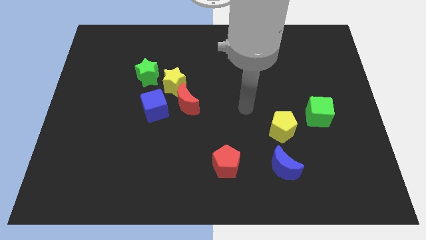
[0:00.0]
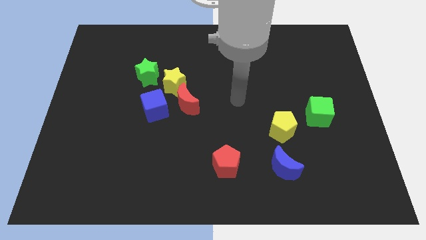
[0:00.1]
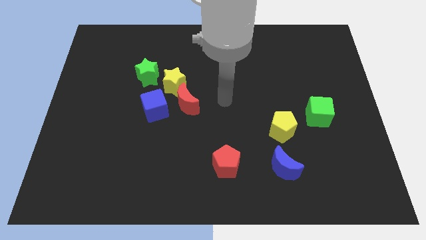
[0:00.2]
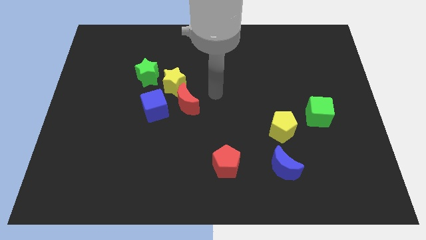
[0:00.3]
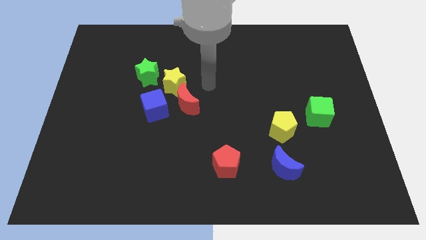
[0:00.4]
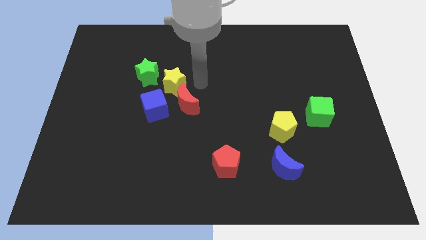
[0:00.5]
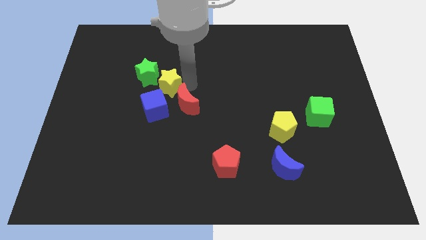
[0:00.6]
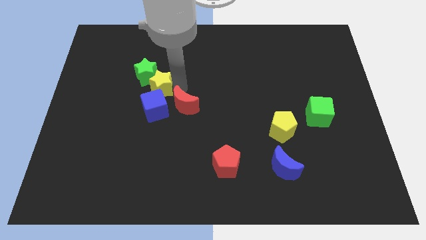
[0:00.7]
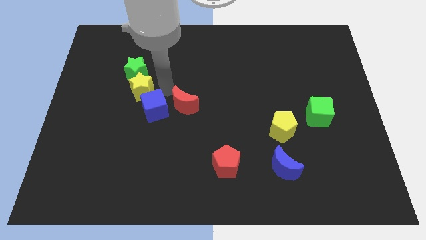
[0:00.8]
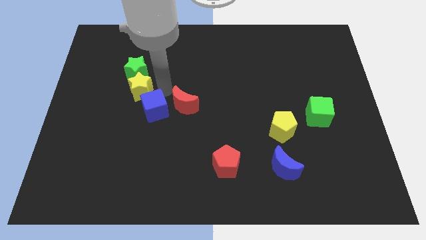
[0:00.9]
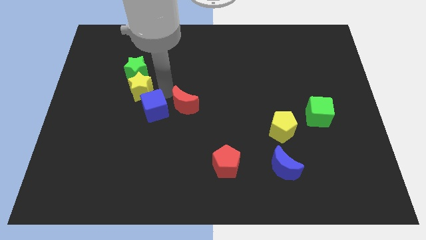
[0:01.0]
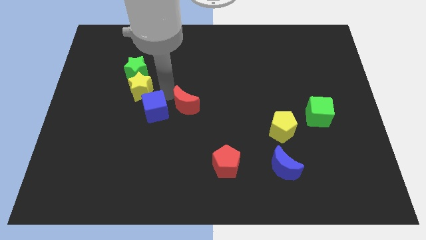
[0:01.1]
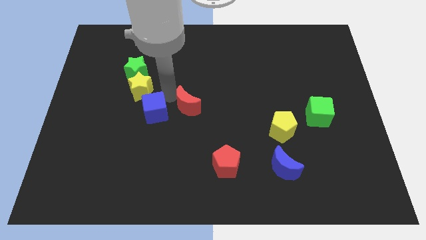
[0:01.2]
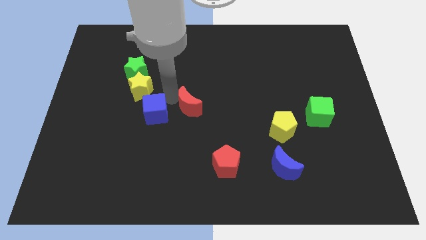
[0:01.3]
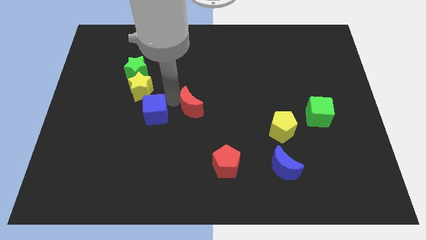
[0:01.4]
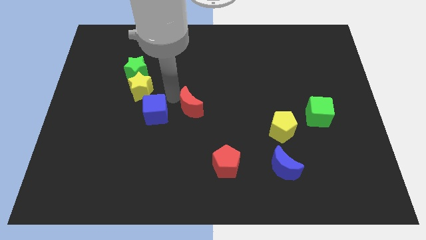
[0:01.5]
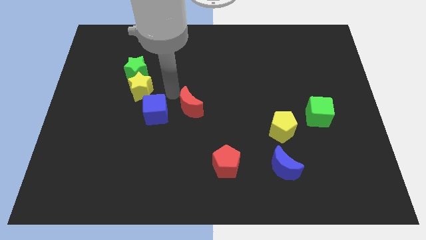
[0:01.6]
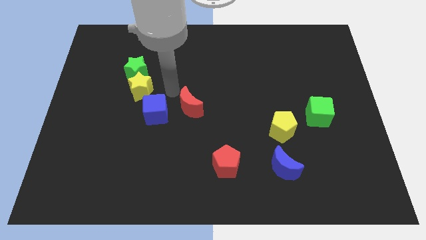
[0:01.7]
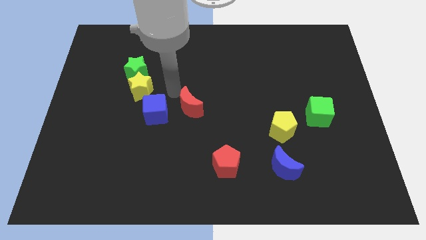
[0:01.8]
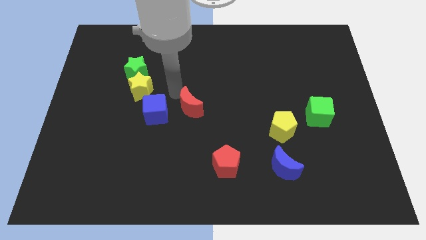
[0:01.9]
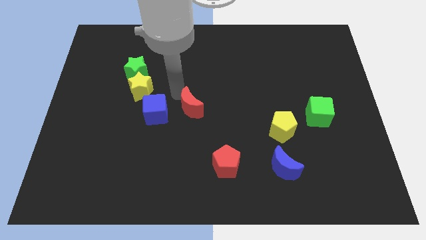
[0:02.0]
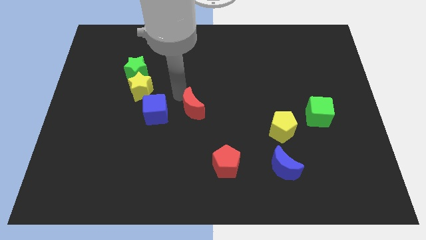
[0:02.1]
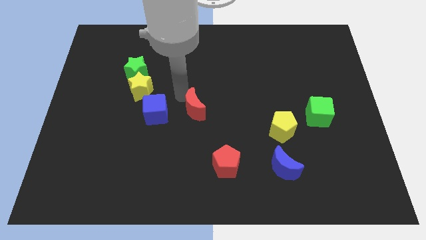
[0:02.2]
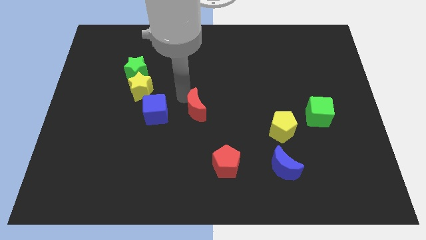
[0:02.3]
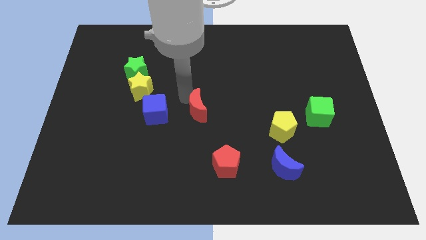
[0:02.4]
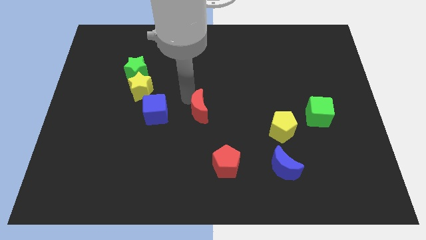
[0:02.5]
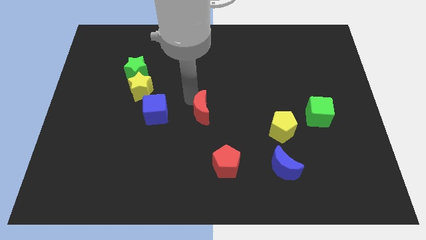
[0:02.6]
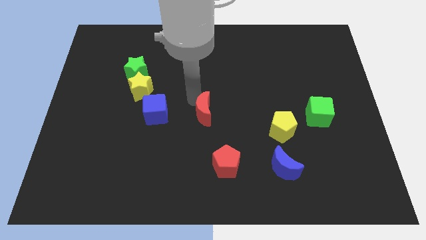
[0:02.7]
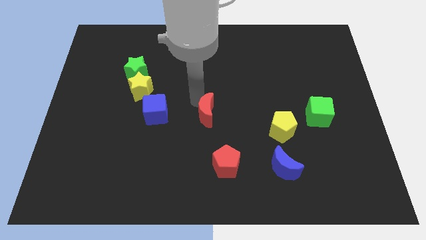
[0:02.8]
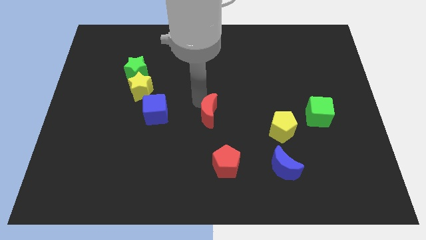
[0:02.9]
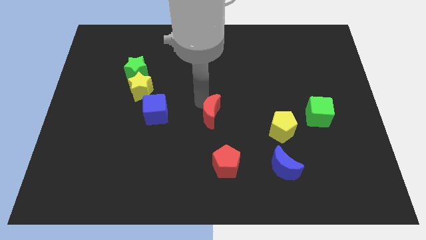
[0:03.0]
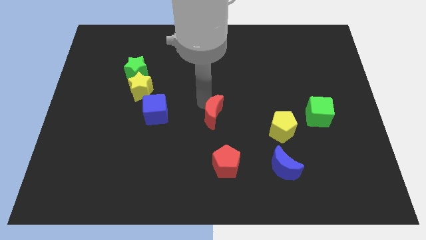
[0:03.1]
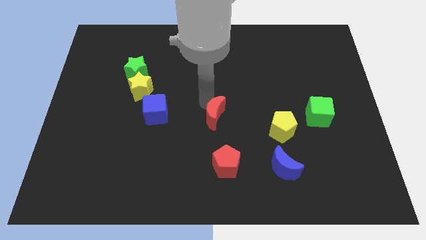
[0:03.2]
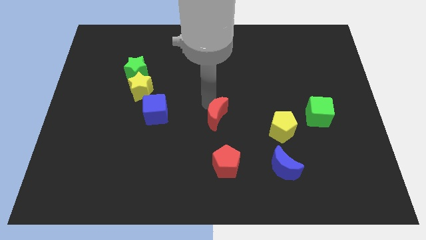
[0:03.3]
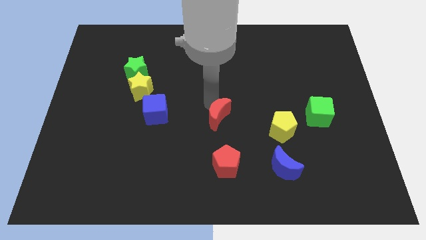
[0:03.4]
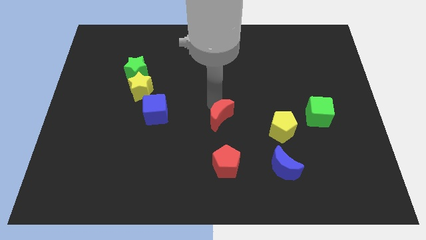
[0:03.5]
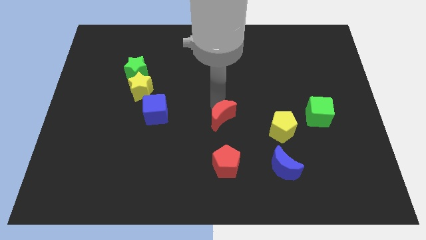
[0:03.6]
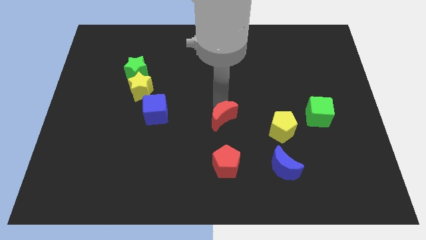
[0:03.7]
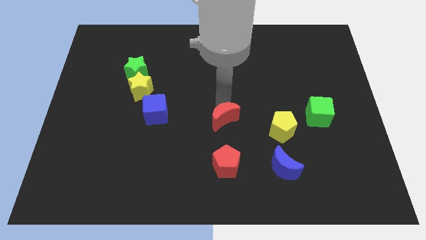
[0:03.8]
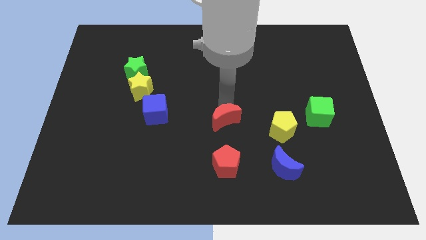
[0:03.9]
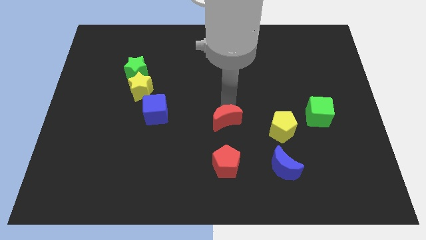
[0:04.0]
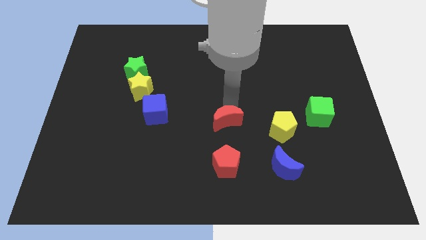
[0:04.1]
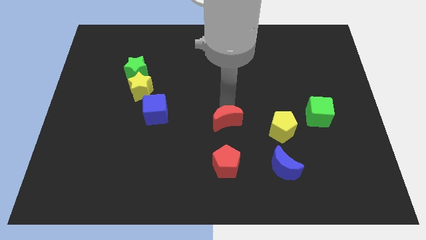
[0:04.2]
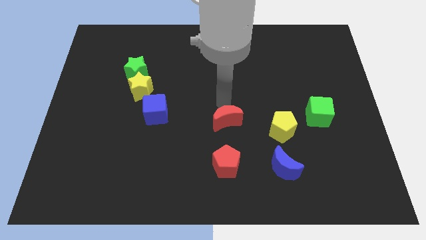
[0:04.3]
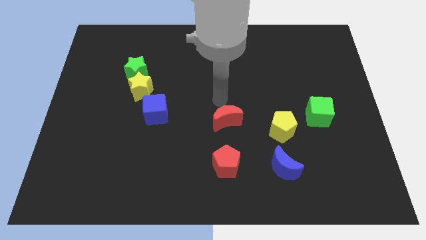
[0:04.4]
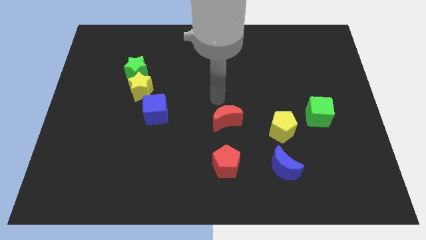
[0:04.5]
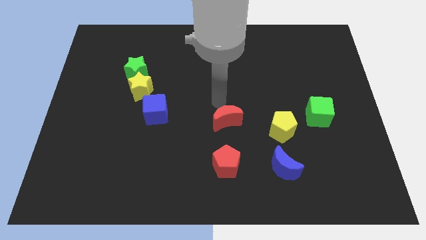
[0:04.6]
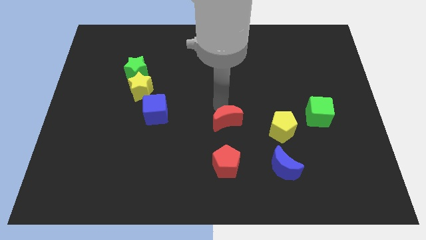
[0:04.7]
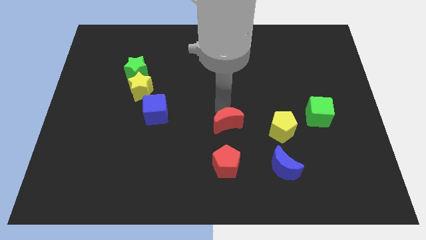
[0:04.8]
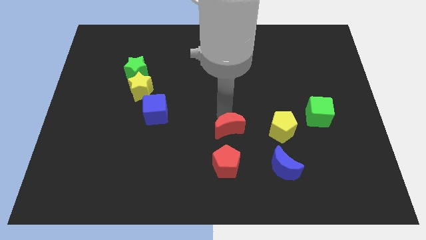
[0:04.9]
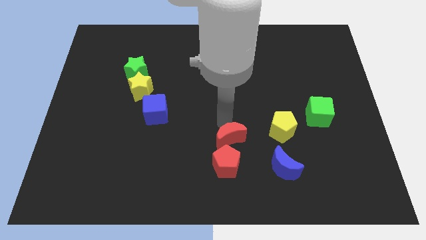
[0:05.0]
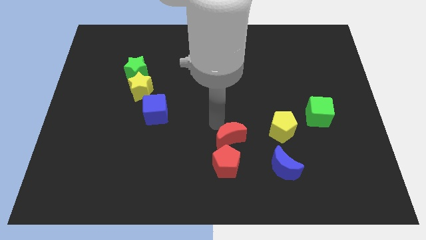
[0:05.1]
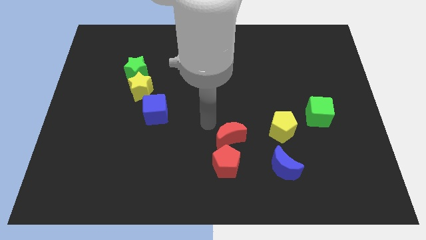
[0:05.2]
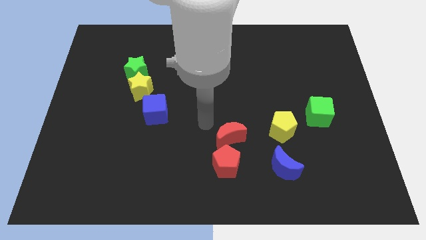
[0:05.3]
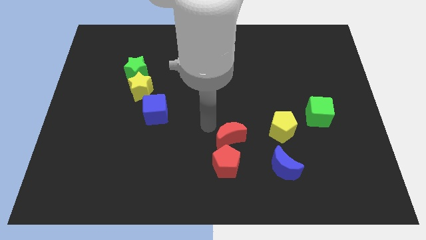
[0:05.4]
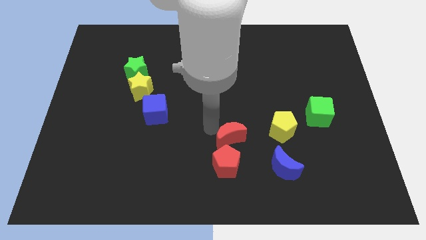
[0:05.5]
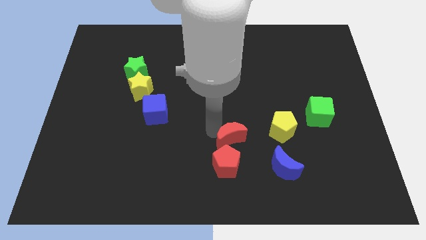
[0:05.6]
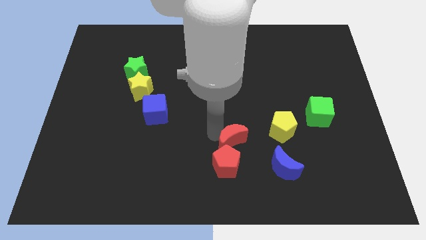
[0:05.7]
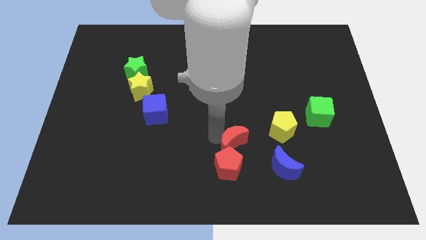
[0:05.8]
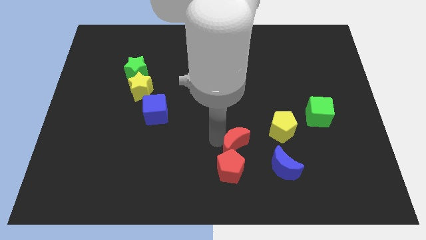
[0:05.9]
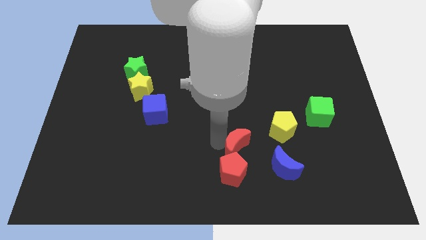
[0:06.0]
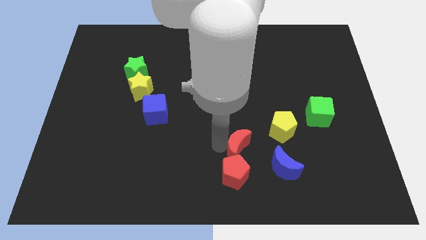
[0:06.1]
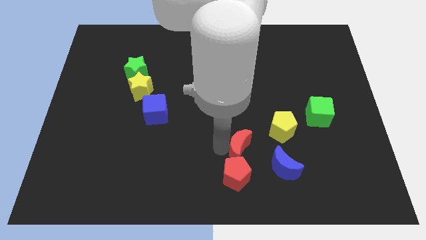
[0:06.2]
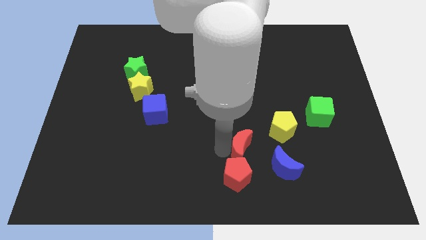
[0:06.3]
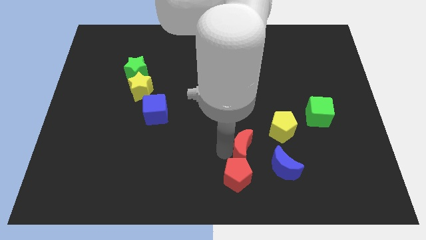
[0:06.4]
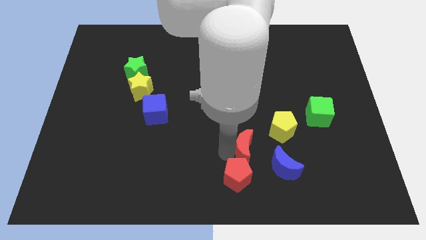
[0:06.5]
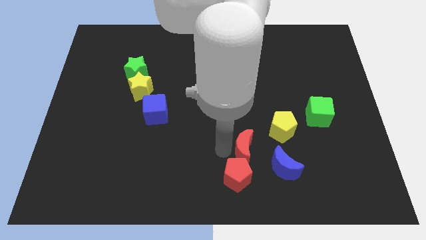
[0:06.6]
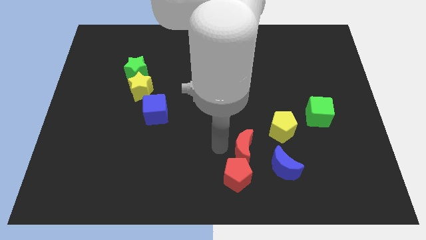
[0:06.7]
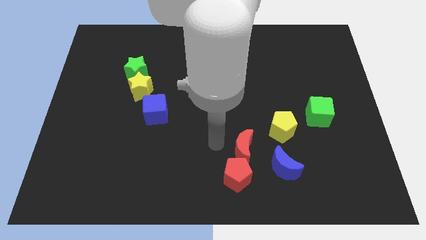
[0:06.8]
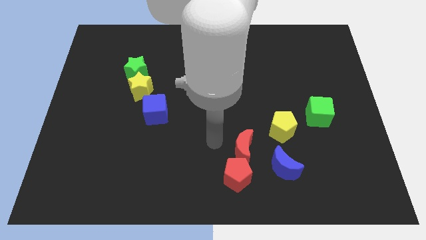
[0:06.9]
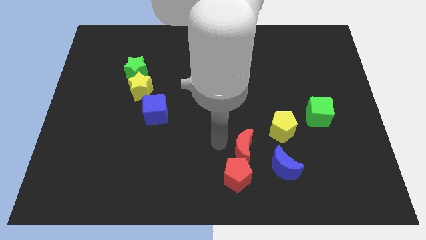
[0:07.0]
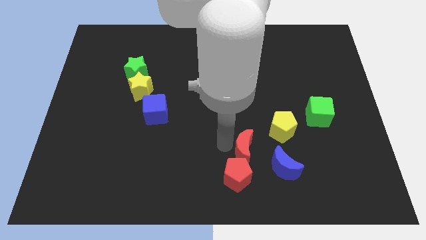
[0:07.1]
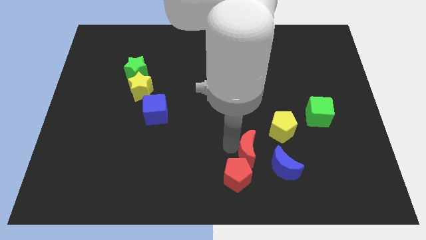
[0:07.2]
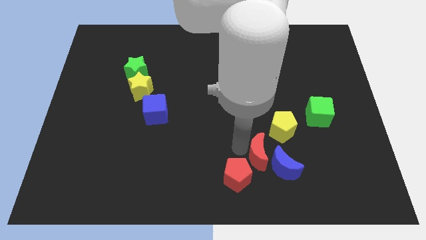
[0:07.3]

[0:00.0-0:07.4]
put the red moon next to the blue moon
